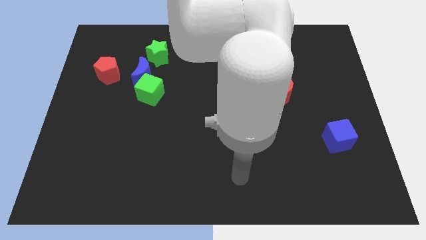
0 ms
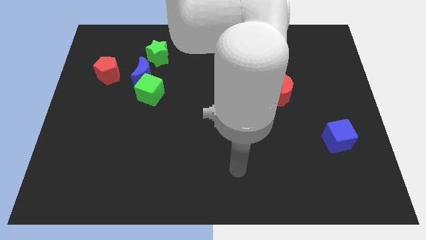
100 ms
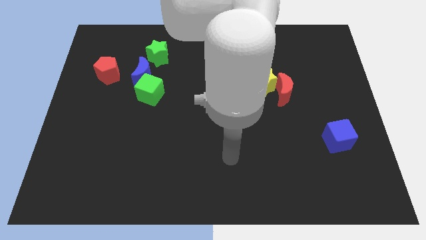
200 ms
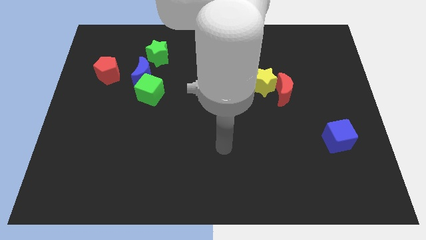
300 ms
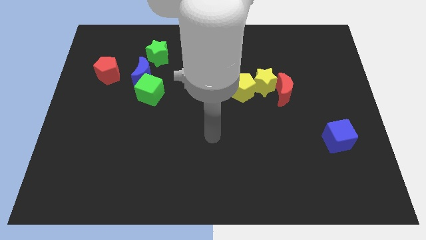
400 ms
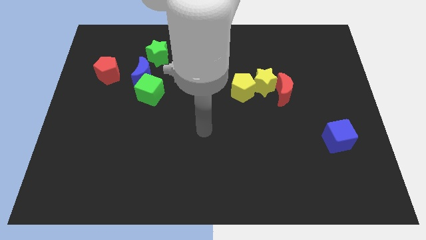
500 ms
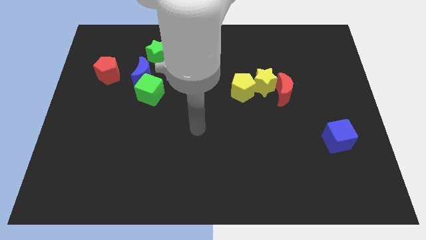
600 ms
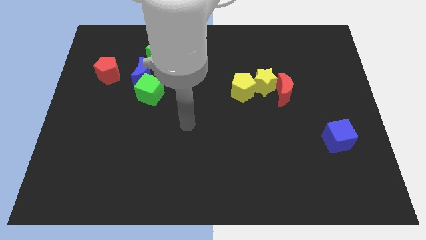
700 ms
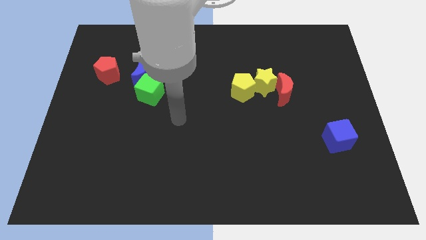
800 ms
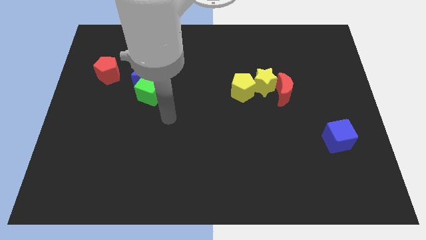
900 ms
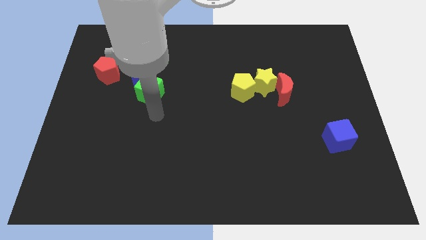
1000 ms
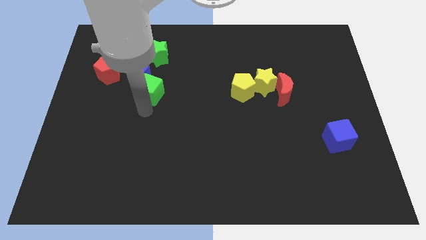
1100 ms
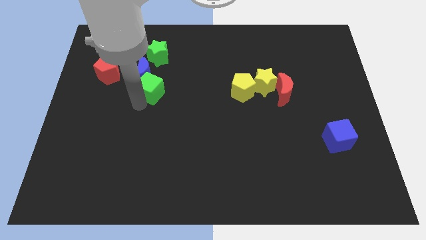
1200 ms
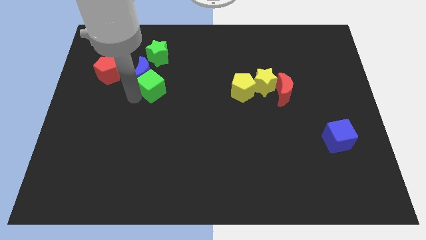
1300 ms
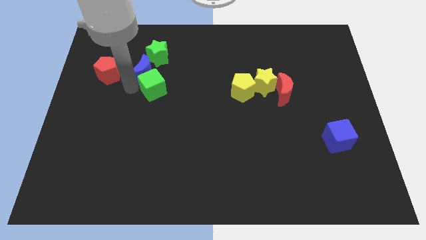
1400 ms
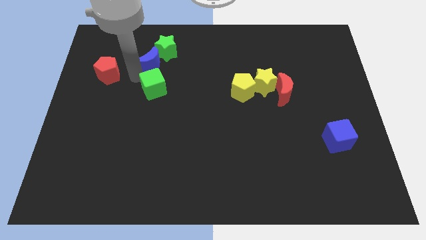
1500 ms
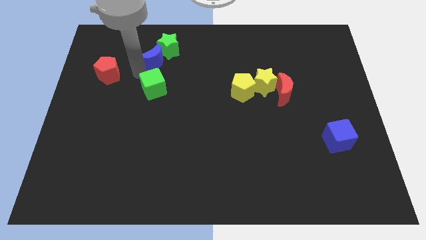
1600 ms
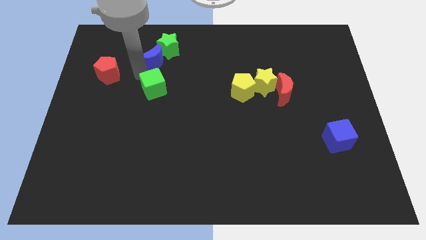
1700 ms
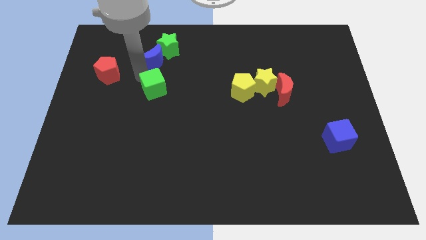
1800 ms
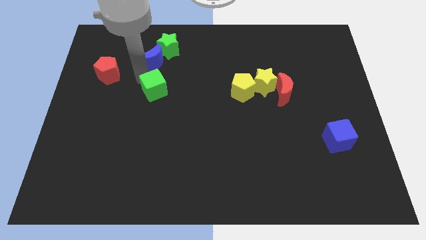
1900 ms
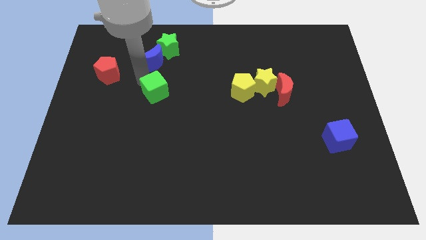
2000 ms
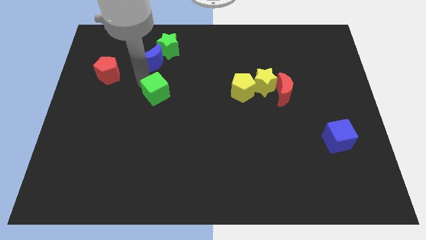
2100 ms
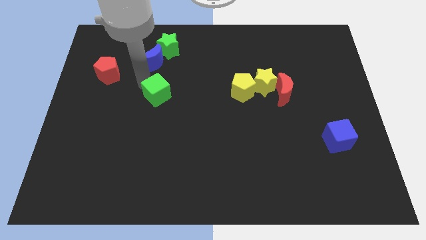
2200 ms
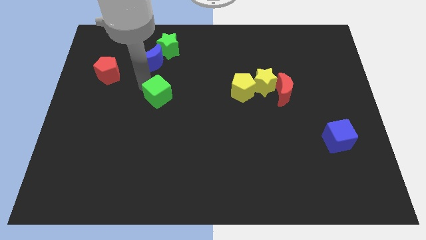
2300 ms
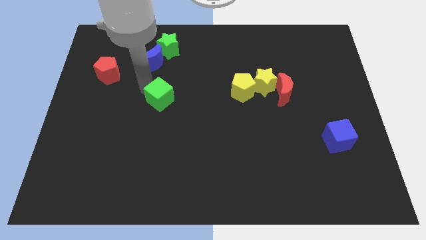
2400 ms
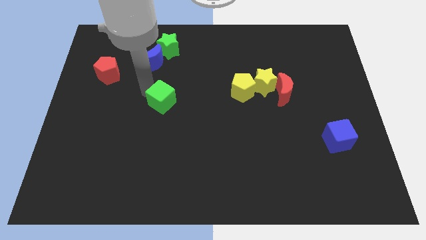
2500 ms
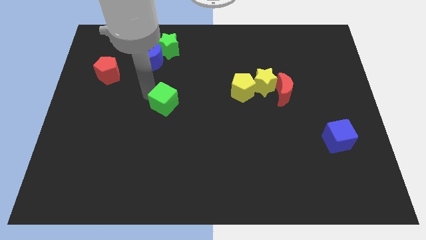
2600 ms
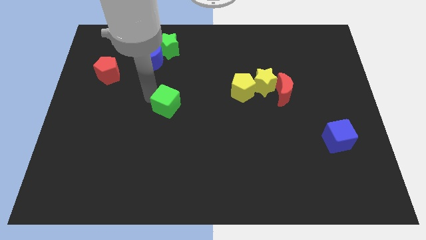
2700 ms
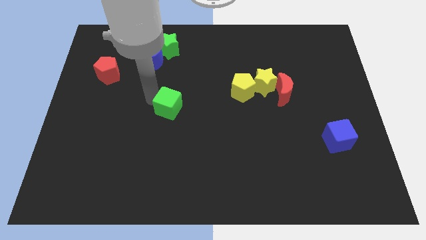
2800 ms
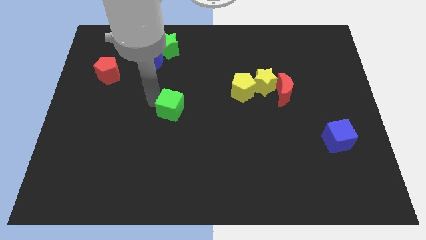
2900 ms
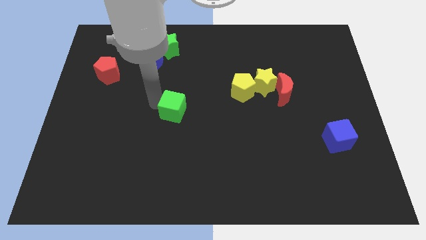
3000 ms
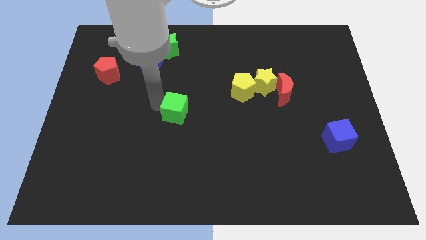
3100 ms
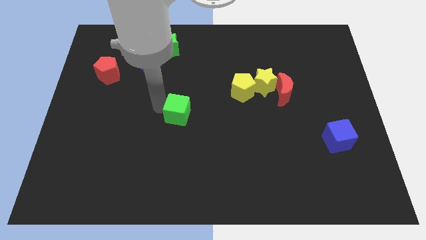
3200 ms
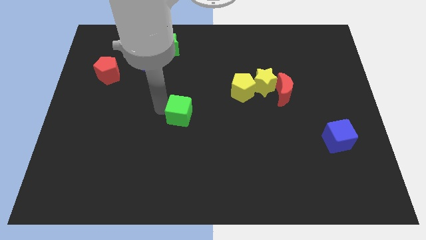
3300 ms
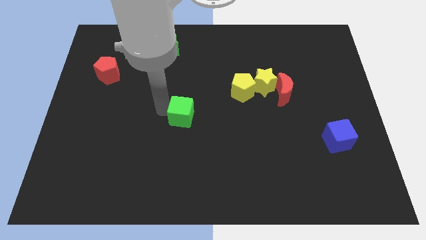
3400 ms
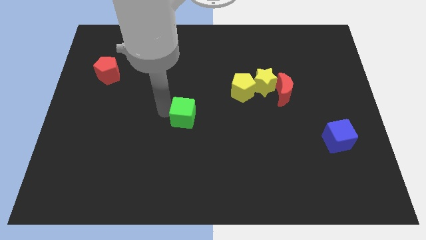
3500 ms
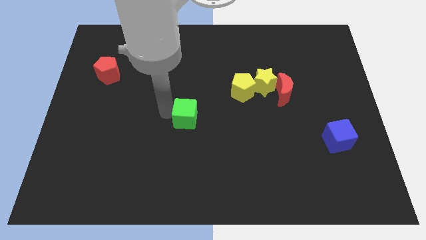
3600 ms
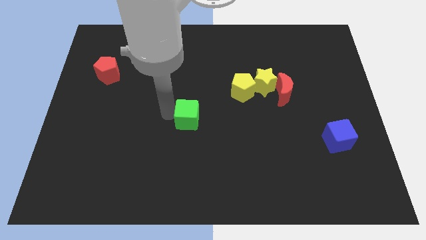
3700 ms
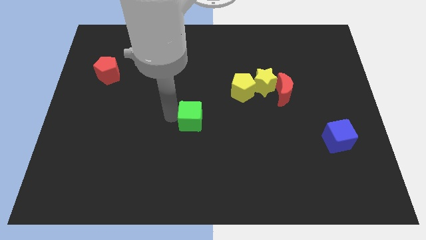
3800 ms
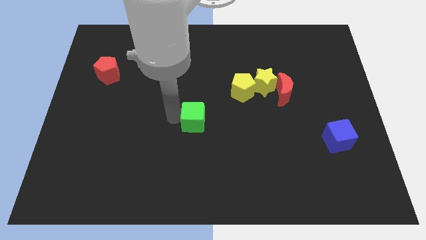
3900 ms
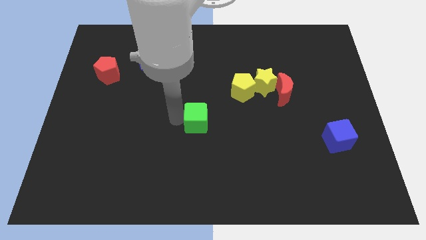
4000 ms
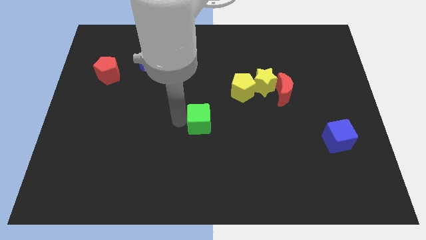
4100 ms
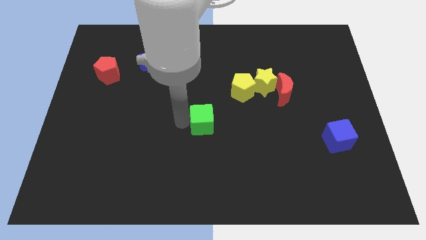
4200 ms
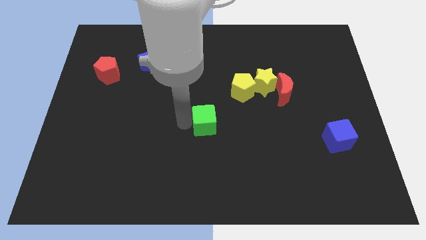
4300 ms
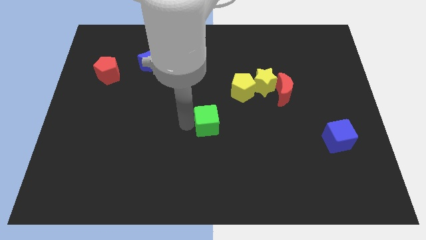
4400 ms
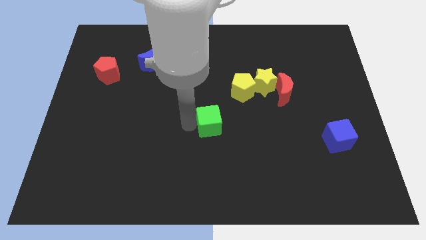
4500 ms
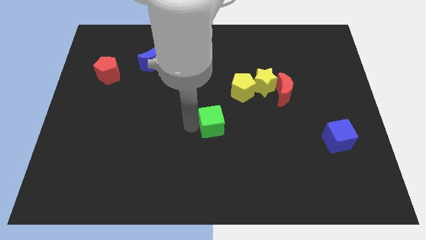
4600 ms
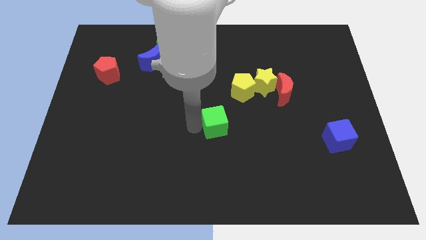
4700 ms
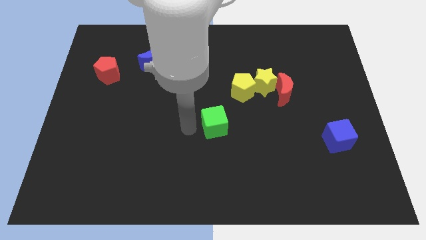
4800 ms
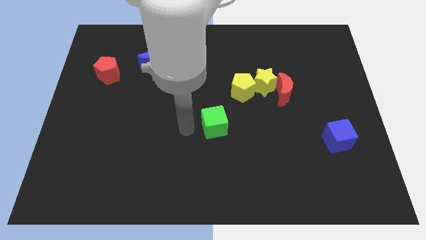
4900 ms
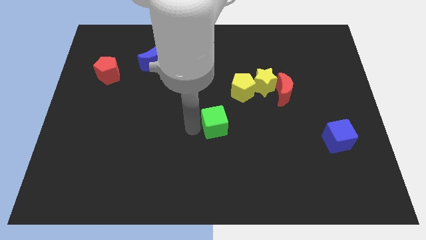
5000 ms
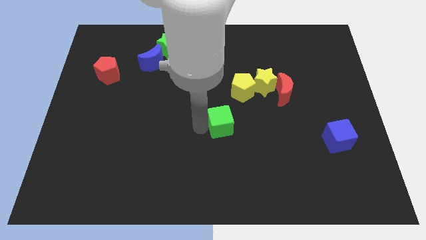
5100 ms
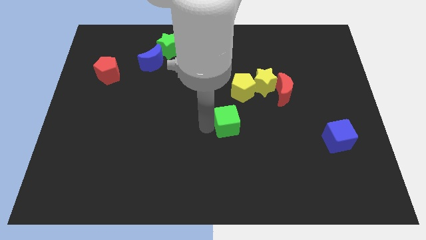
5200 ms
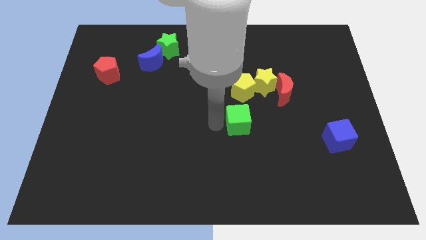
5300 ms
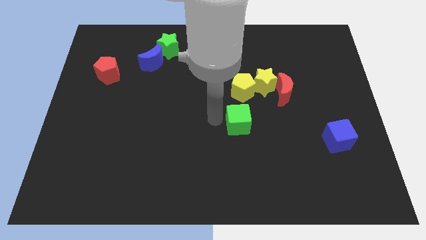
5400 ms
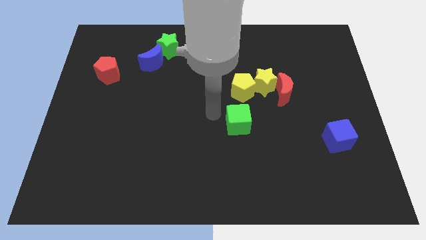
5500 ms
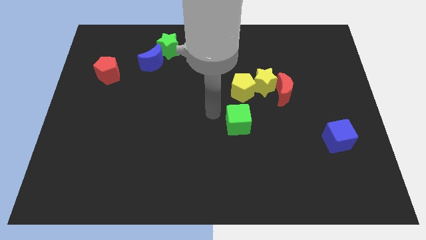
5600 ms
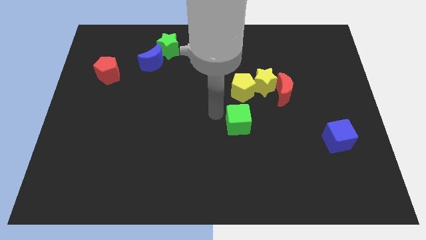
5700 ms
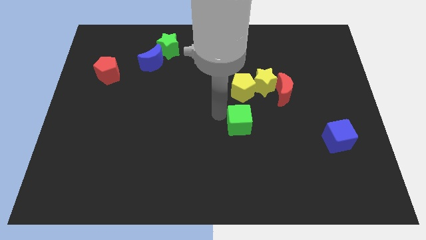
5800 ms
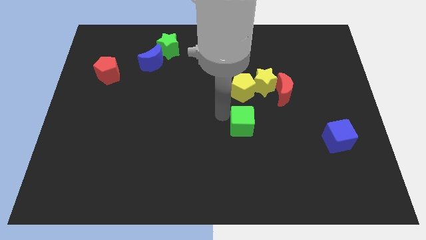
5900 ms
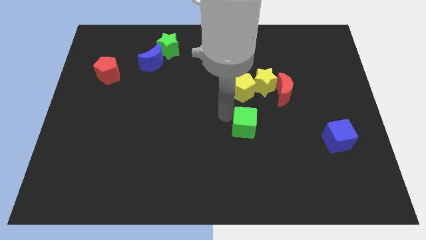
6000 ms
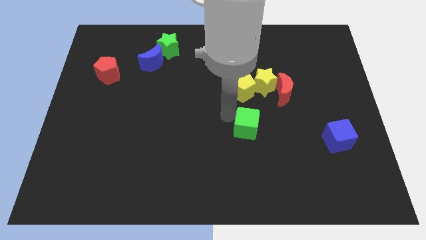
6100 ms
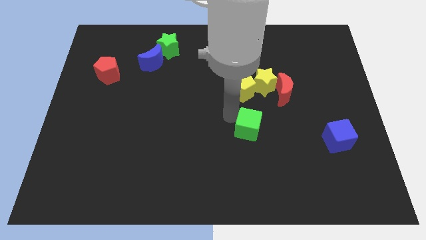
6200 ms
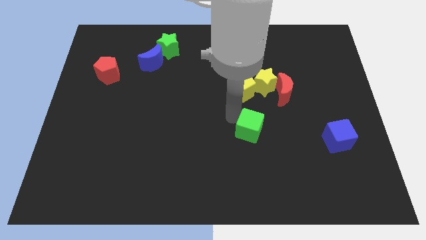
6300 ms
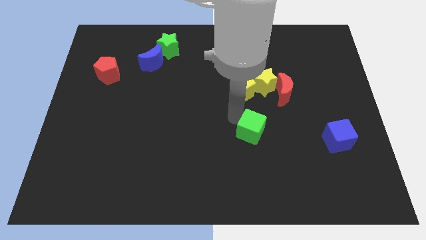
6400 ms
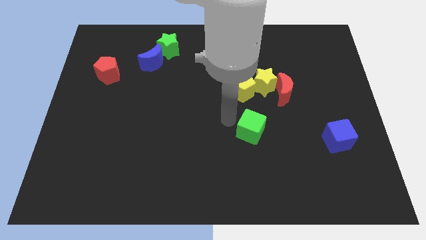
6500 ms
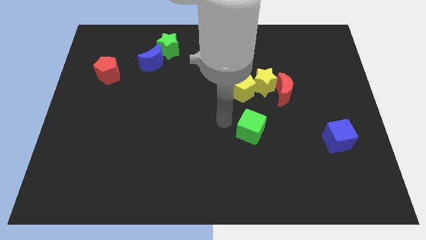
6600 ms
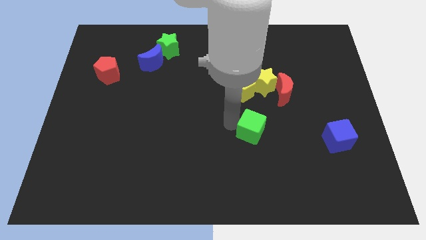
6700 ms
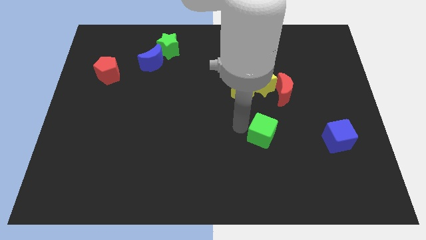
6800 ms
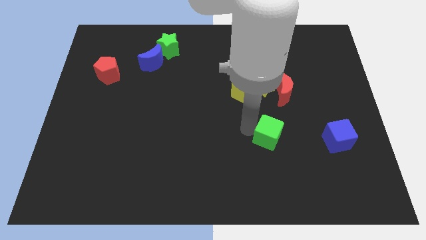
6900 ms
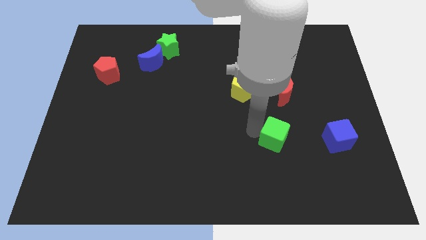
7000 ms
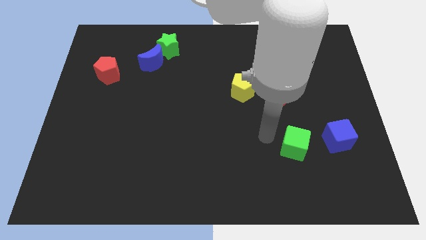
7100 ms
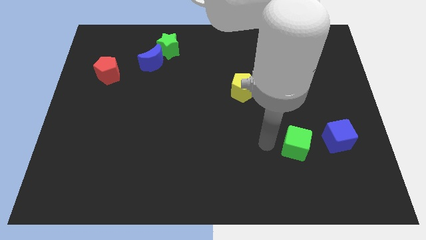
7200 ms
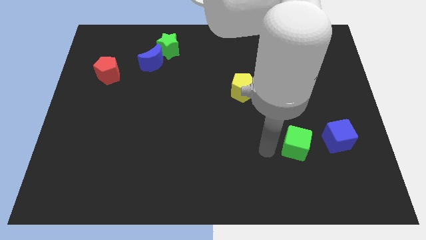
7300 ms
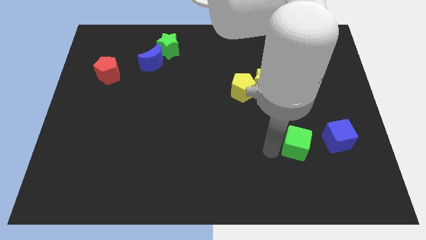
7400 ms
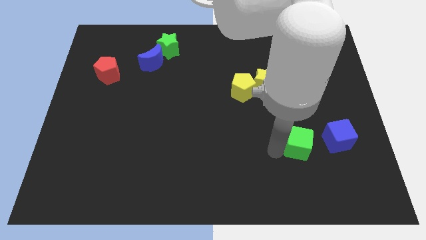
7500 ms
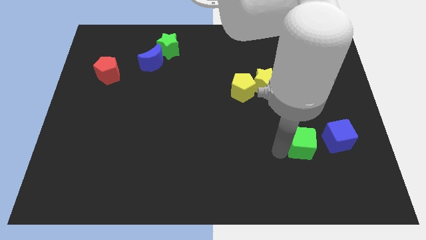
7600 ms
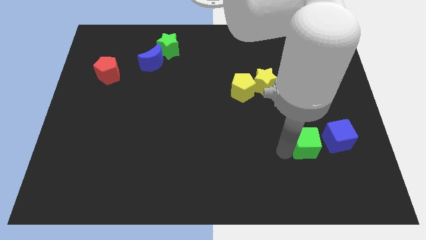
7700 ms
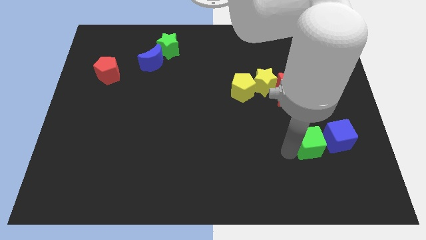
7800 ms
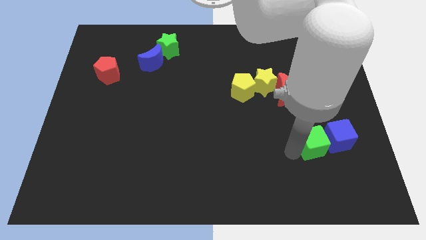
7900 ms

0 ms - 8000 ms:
push the green cube to the blue cube
